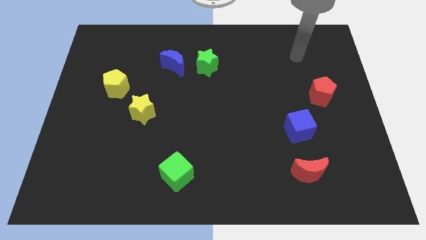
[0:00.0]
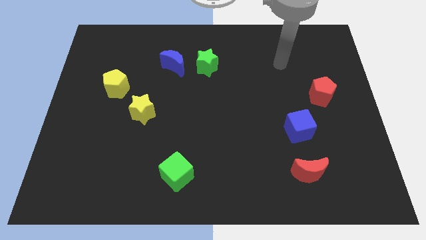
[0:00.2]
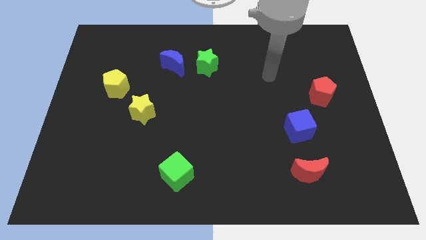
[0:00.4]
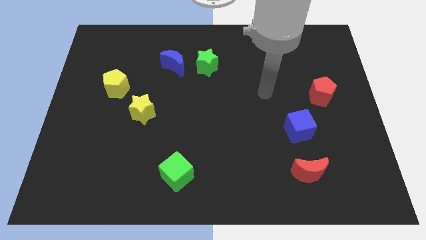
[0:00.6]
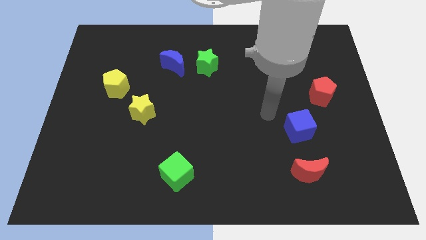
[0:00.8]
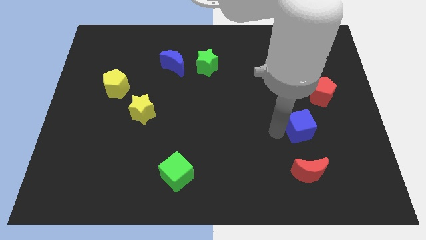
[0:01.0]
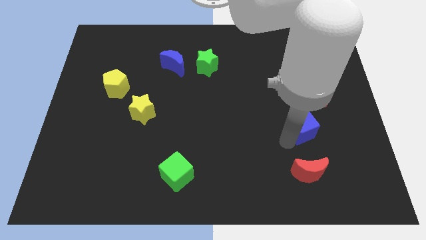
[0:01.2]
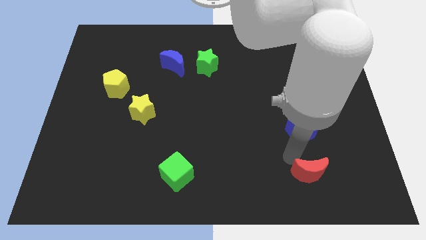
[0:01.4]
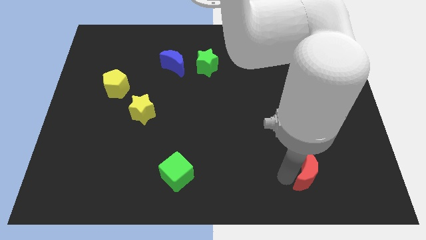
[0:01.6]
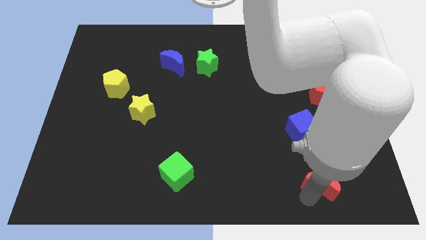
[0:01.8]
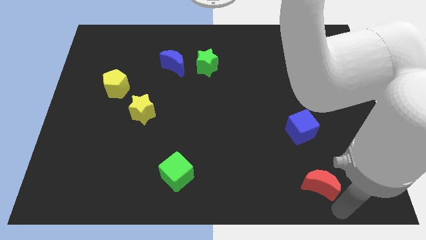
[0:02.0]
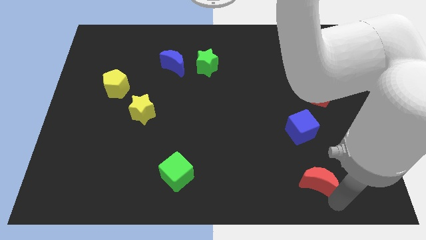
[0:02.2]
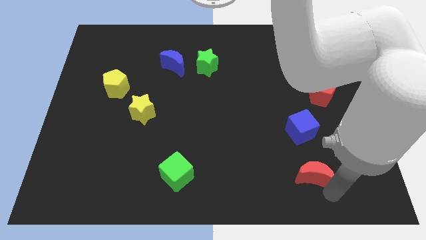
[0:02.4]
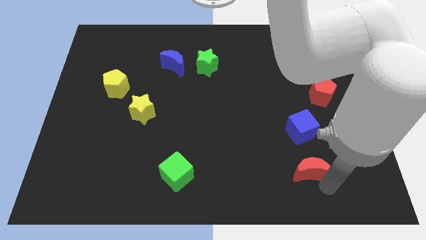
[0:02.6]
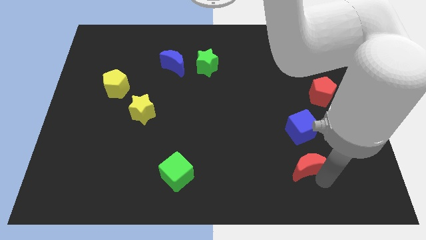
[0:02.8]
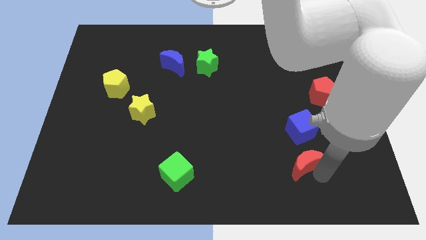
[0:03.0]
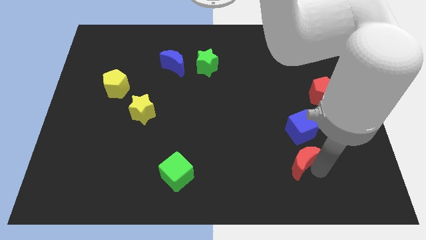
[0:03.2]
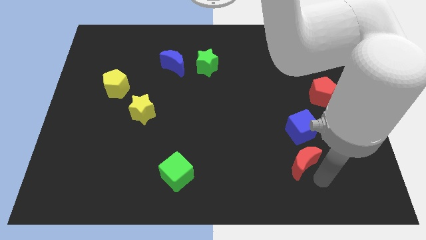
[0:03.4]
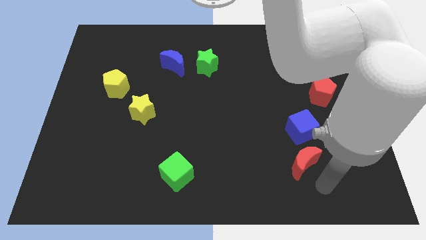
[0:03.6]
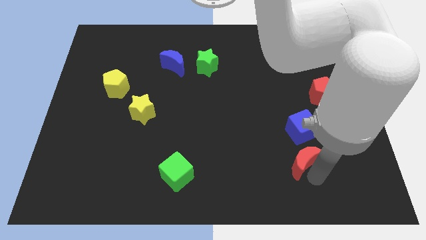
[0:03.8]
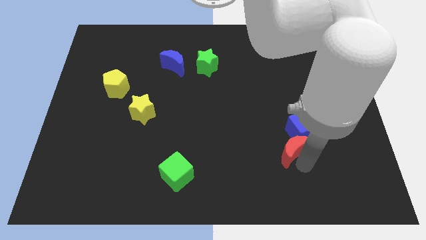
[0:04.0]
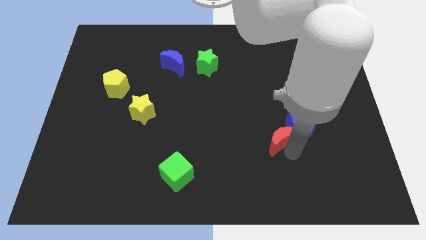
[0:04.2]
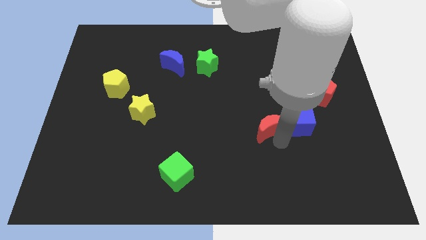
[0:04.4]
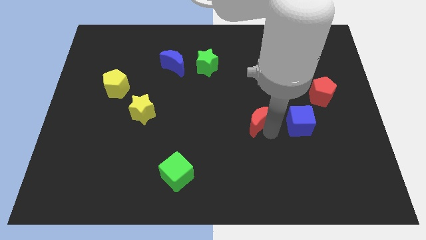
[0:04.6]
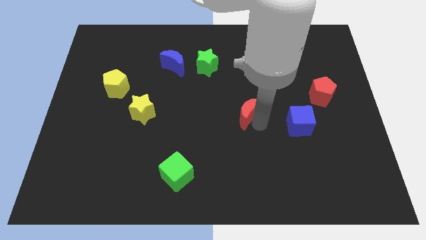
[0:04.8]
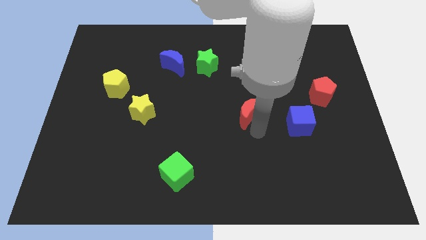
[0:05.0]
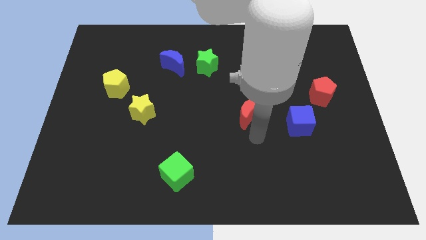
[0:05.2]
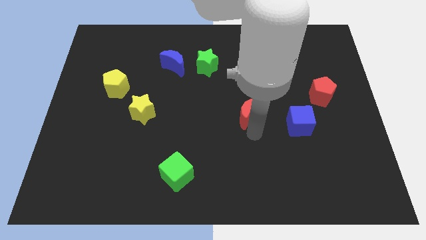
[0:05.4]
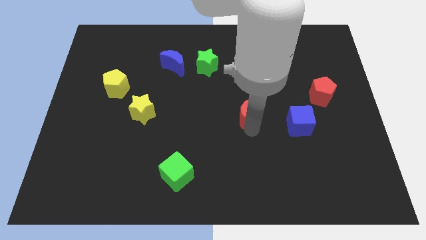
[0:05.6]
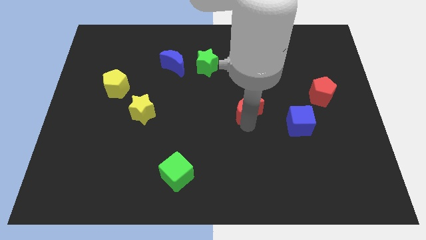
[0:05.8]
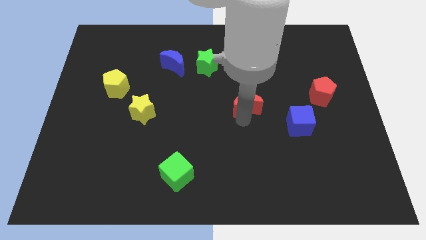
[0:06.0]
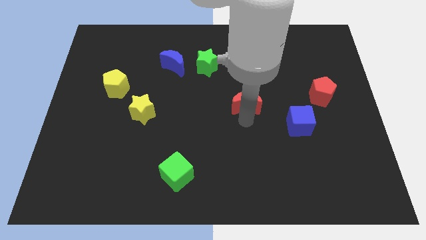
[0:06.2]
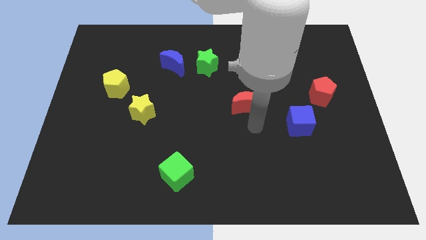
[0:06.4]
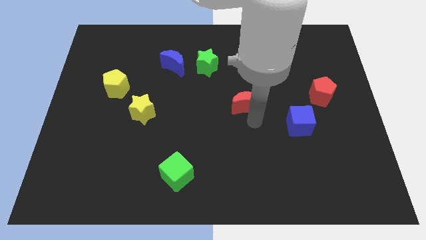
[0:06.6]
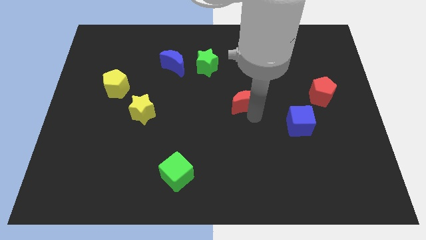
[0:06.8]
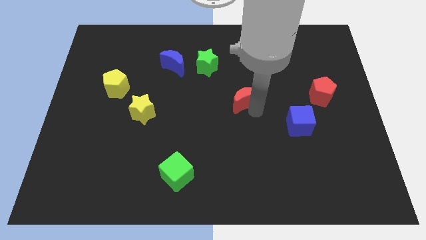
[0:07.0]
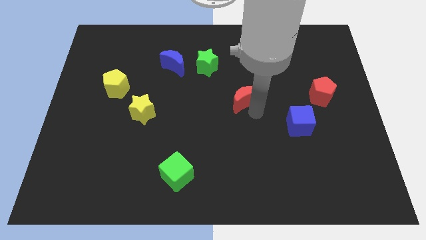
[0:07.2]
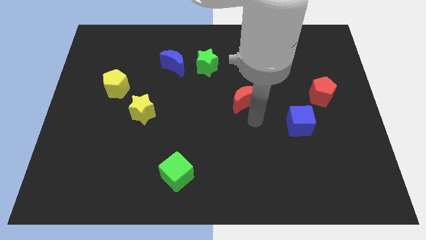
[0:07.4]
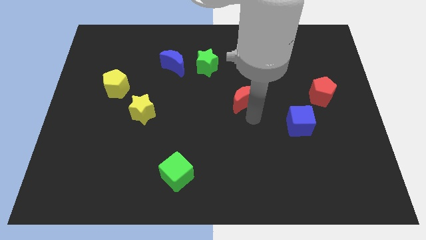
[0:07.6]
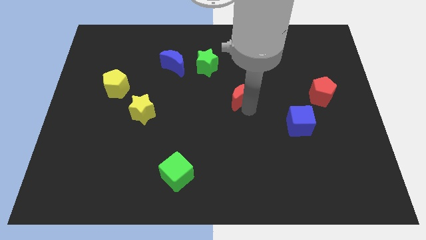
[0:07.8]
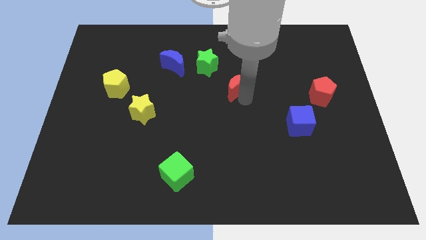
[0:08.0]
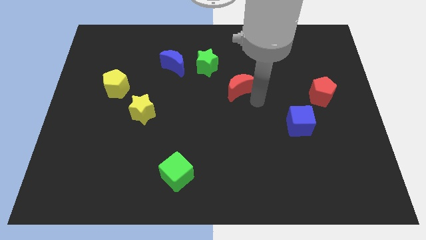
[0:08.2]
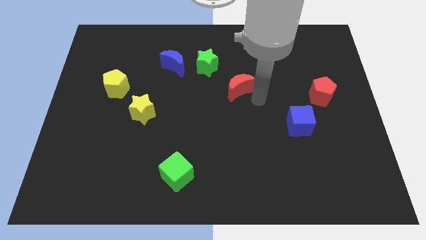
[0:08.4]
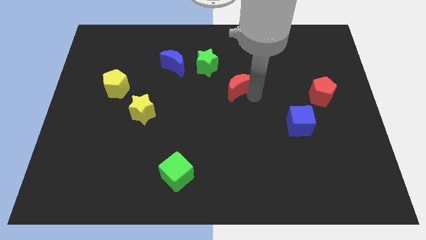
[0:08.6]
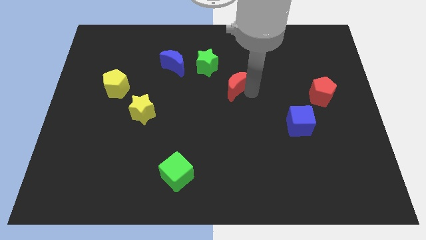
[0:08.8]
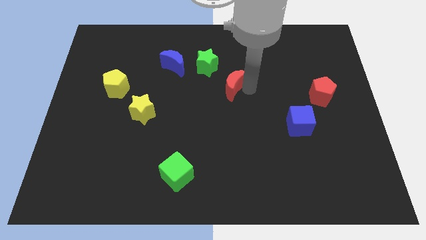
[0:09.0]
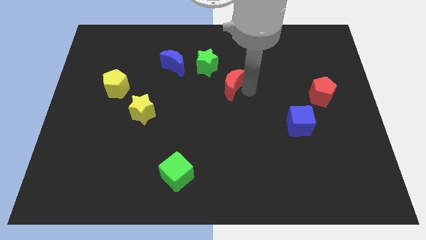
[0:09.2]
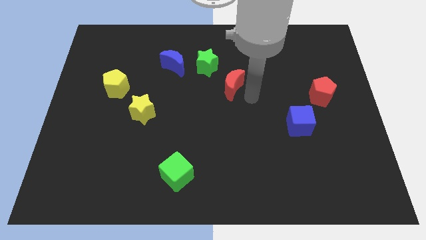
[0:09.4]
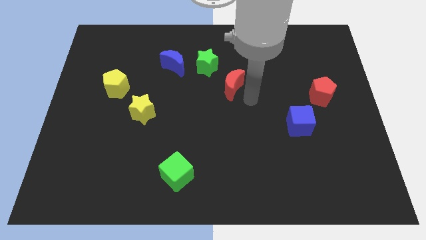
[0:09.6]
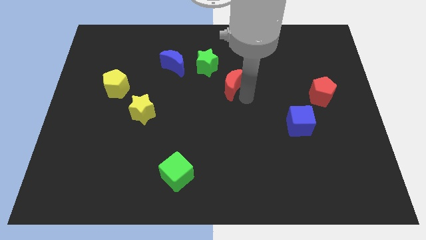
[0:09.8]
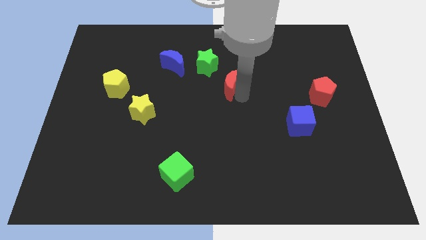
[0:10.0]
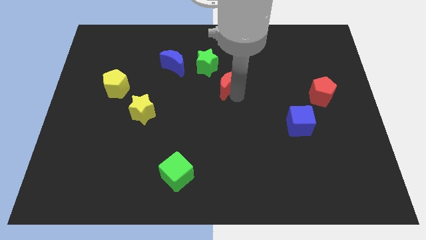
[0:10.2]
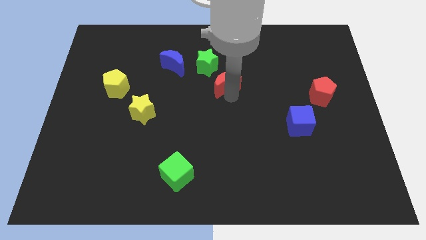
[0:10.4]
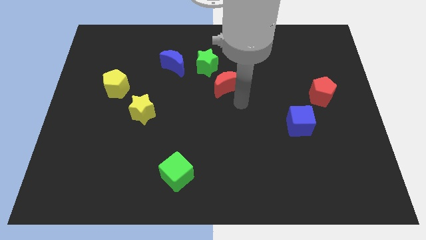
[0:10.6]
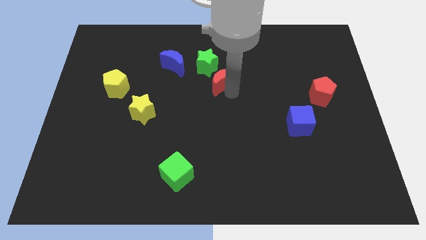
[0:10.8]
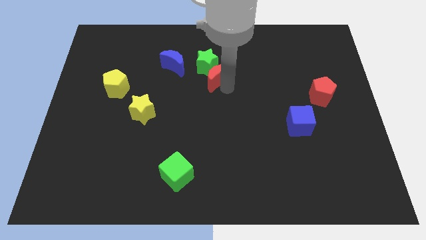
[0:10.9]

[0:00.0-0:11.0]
move the red moon next to the green star

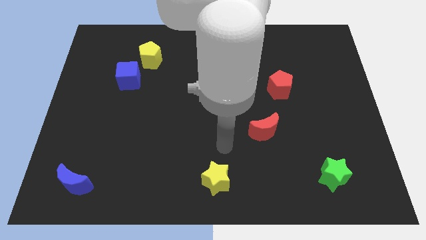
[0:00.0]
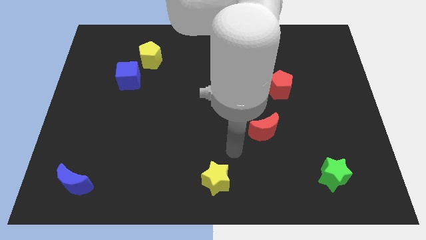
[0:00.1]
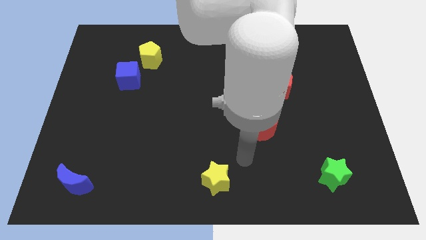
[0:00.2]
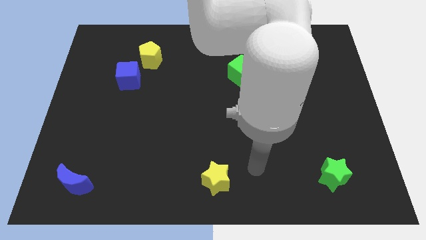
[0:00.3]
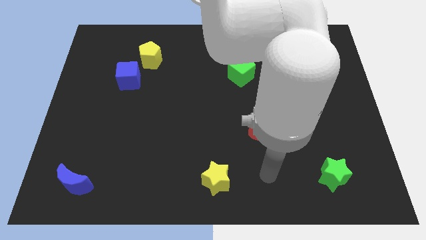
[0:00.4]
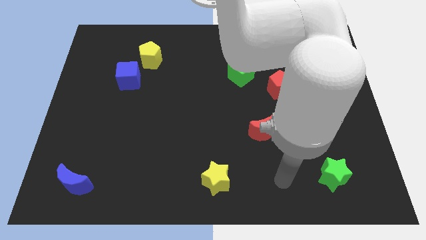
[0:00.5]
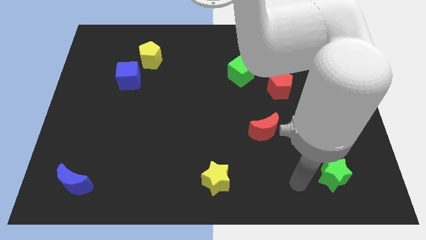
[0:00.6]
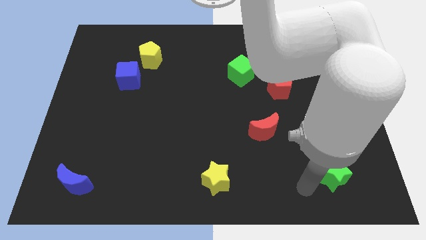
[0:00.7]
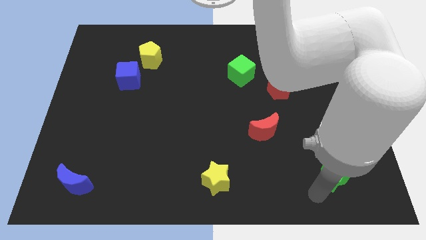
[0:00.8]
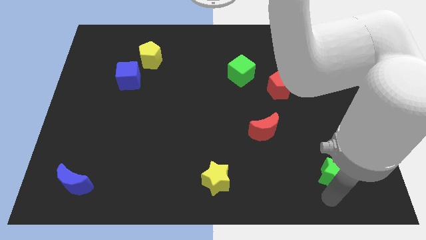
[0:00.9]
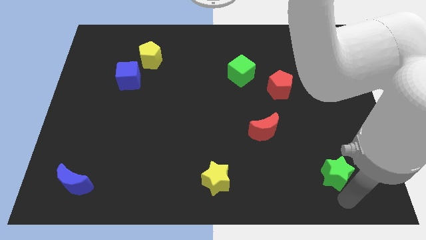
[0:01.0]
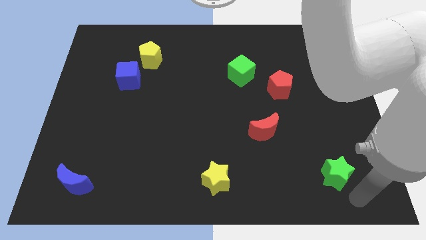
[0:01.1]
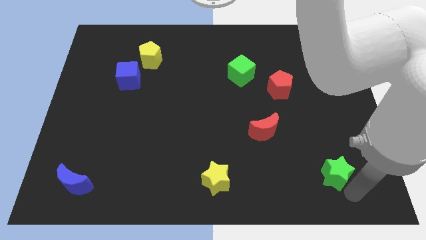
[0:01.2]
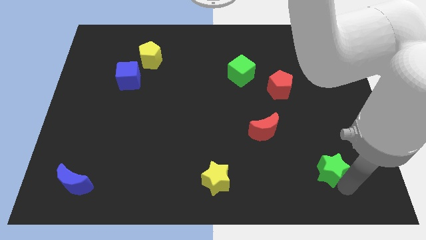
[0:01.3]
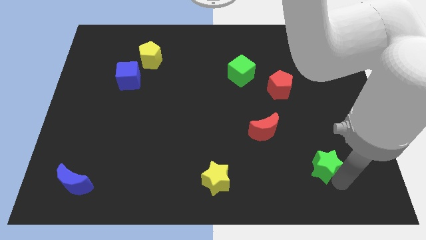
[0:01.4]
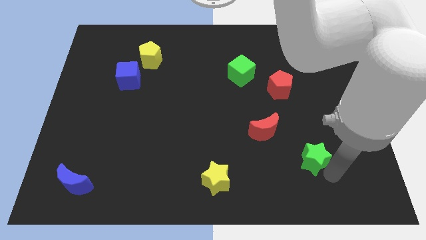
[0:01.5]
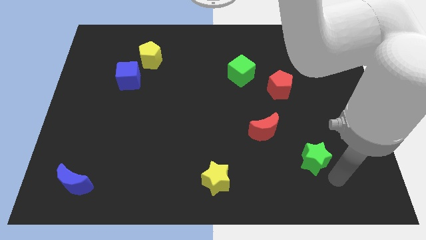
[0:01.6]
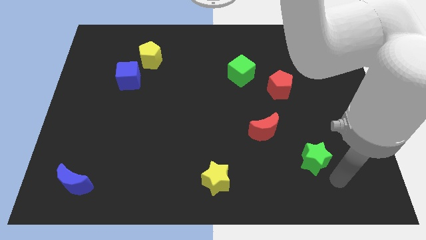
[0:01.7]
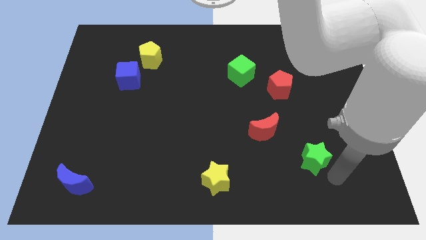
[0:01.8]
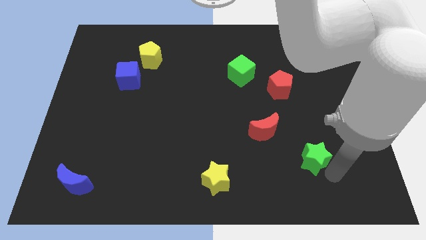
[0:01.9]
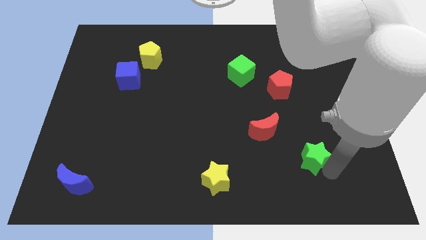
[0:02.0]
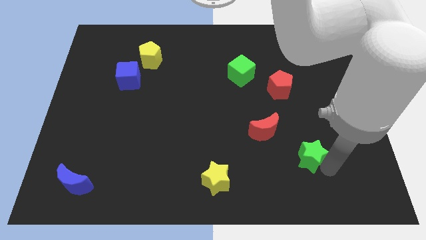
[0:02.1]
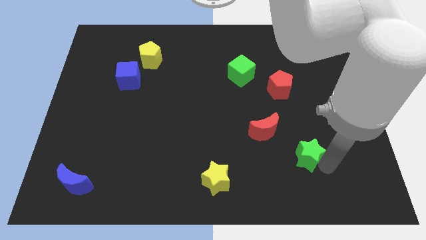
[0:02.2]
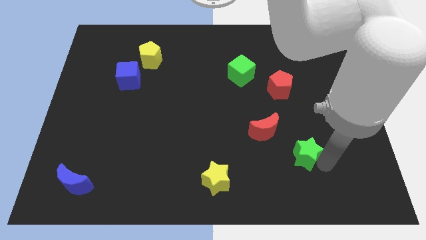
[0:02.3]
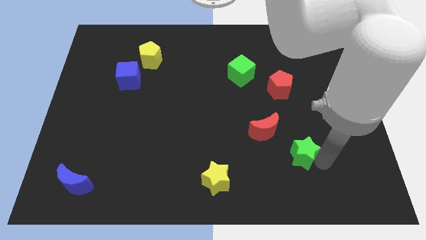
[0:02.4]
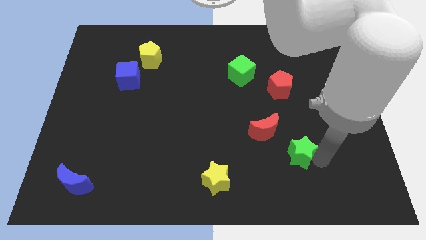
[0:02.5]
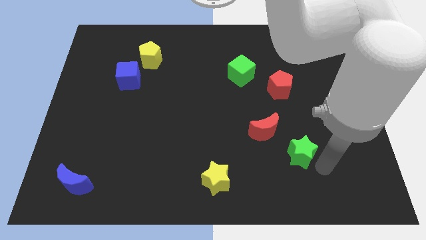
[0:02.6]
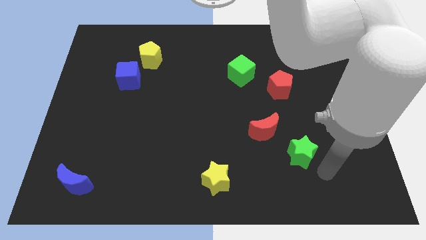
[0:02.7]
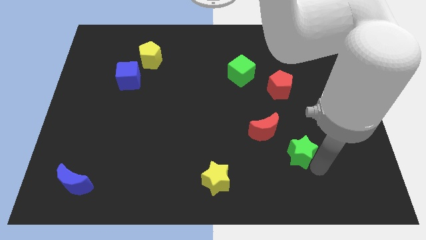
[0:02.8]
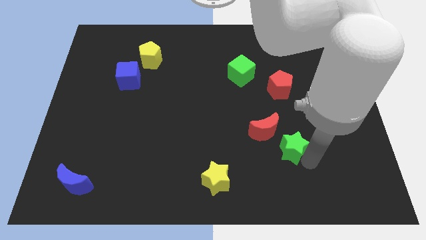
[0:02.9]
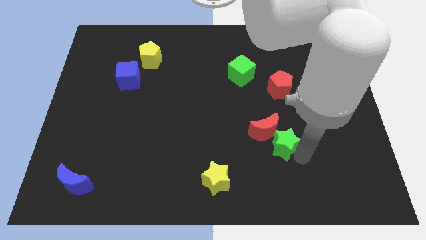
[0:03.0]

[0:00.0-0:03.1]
put the green star towards the red moon
